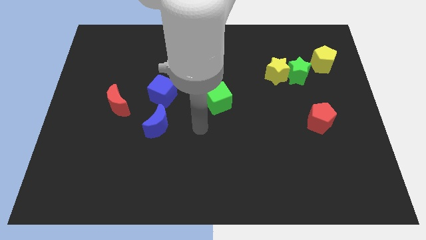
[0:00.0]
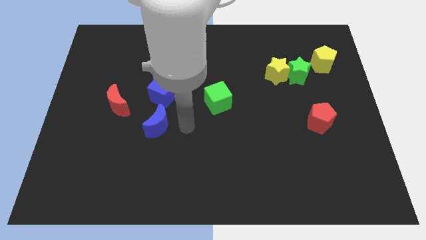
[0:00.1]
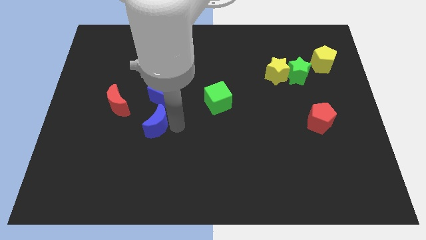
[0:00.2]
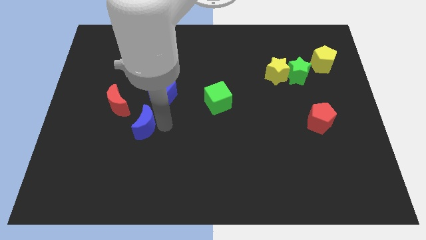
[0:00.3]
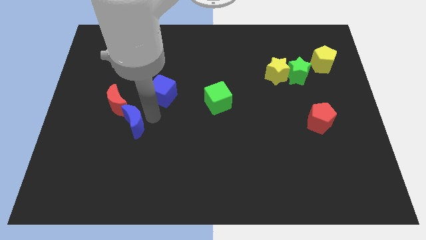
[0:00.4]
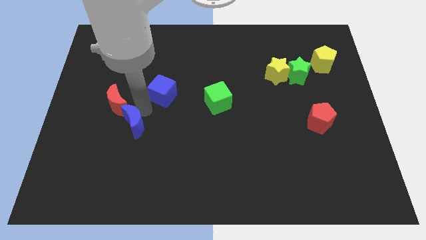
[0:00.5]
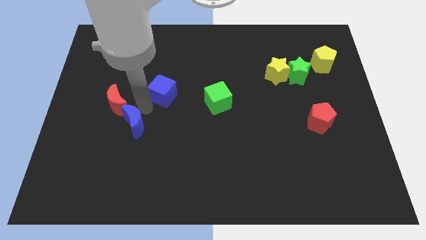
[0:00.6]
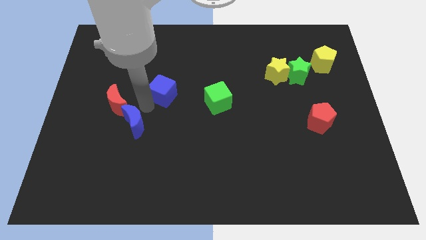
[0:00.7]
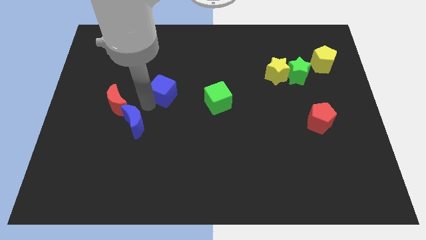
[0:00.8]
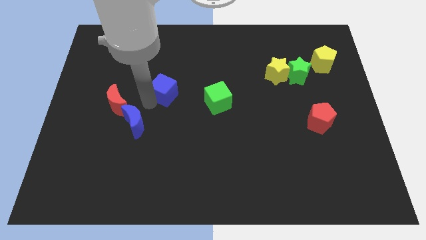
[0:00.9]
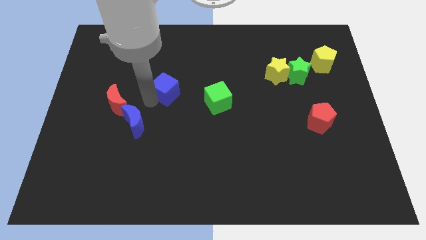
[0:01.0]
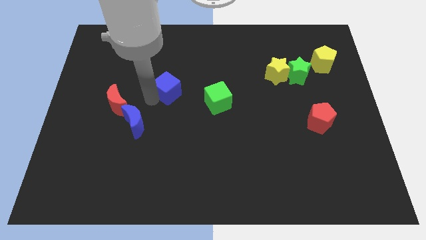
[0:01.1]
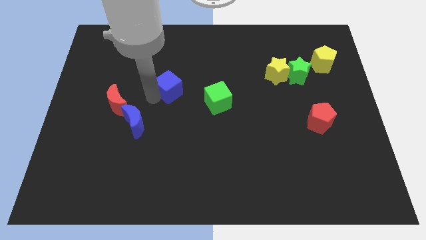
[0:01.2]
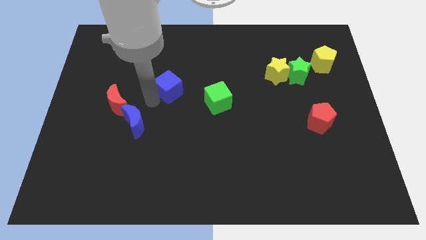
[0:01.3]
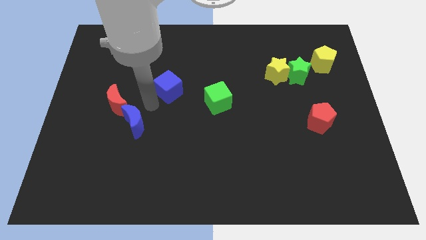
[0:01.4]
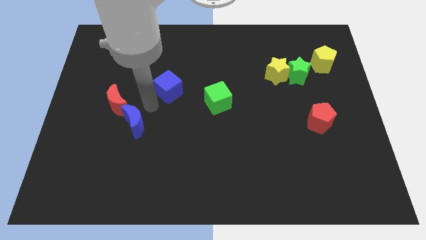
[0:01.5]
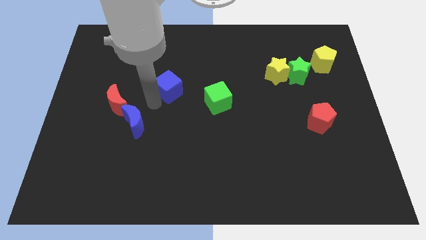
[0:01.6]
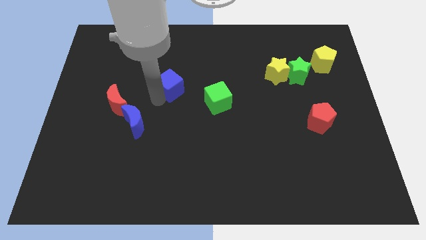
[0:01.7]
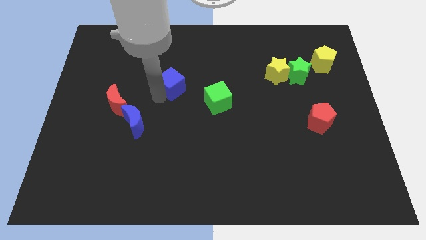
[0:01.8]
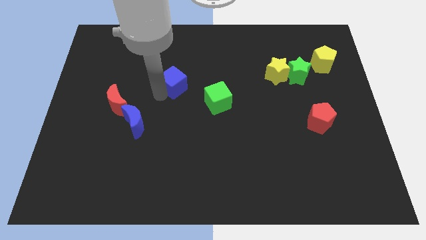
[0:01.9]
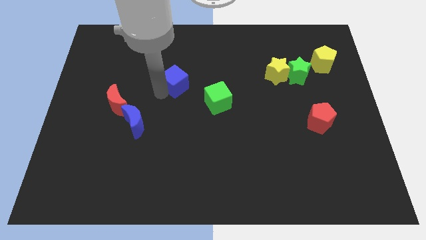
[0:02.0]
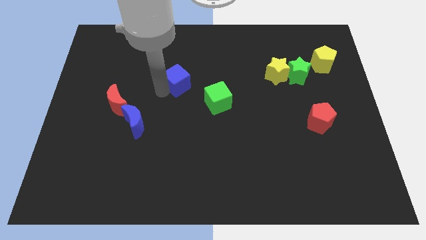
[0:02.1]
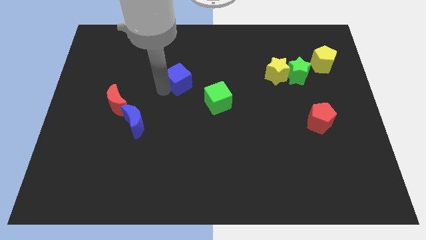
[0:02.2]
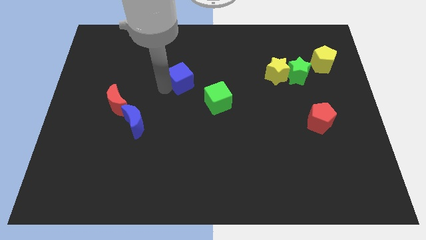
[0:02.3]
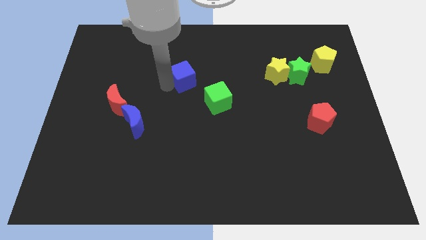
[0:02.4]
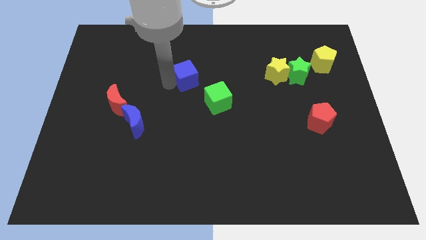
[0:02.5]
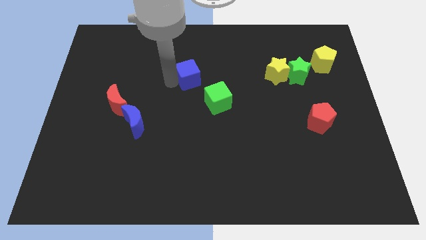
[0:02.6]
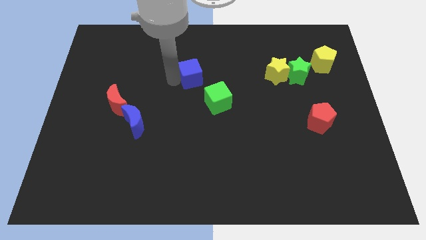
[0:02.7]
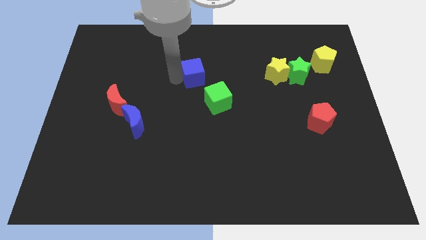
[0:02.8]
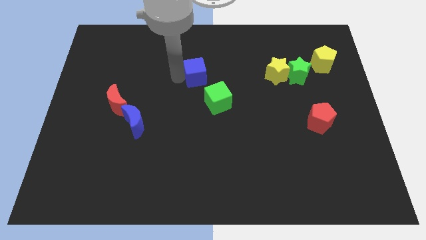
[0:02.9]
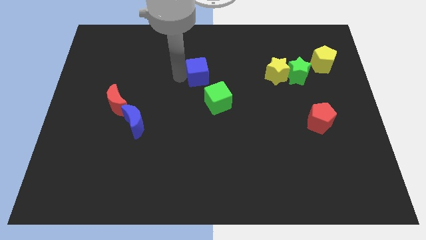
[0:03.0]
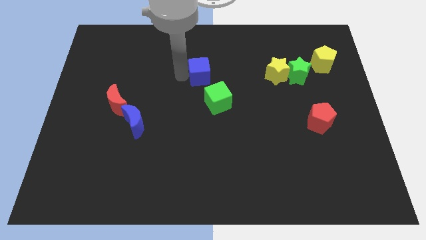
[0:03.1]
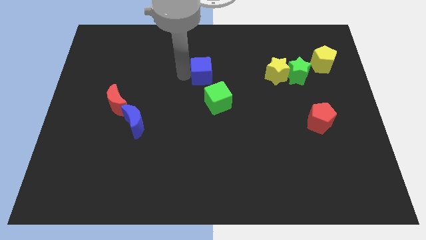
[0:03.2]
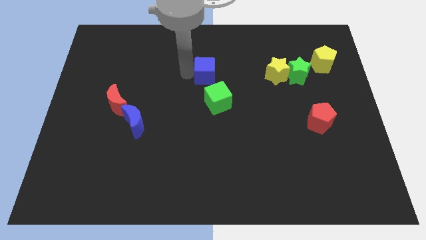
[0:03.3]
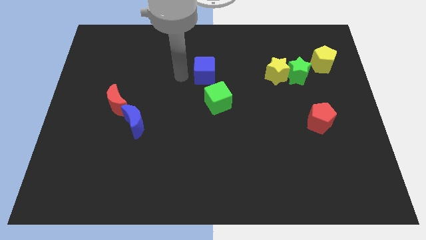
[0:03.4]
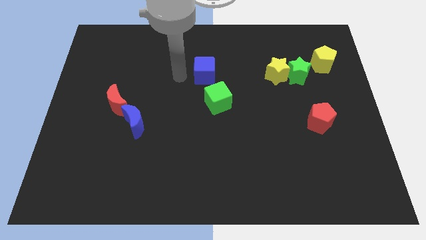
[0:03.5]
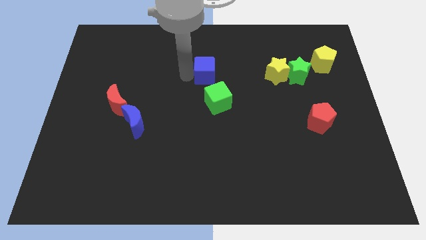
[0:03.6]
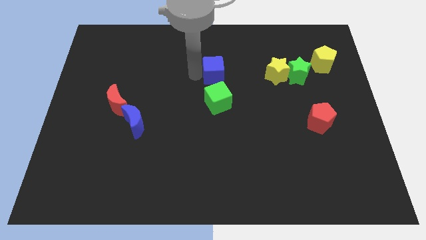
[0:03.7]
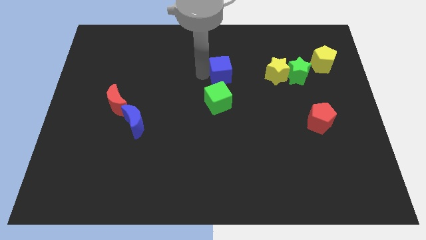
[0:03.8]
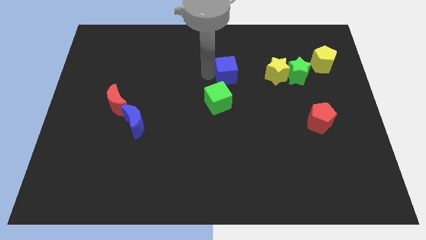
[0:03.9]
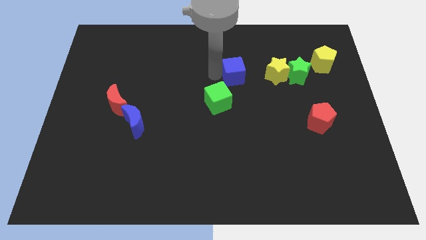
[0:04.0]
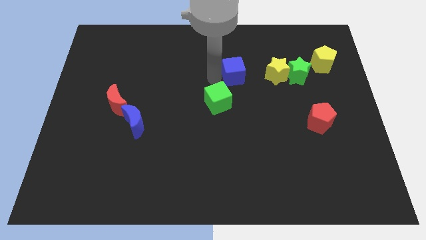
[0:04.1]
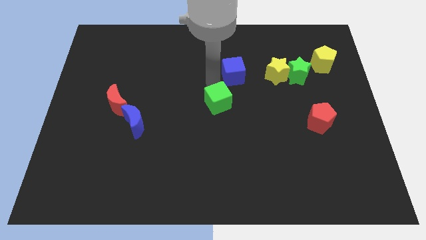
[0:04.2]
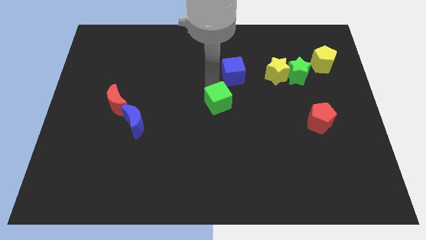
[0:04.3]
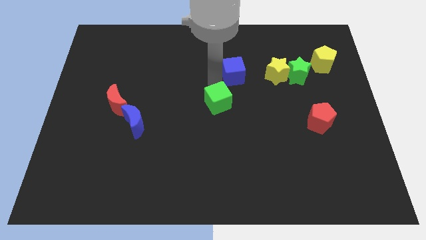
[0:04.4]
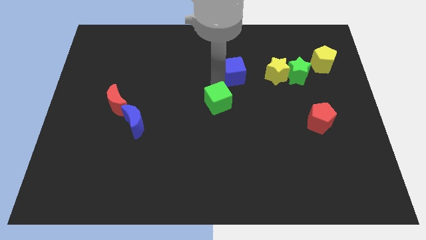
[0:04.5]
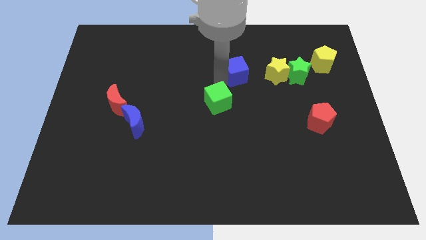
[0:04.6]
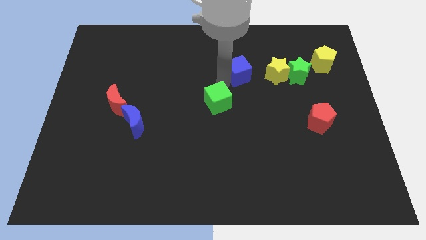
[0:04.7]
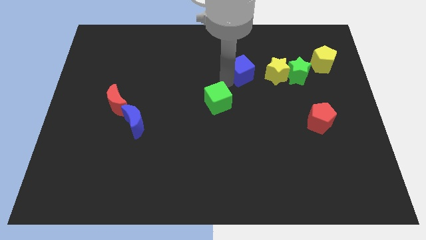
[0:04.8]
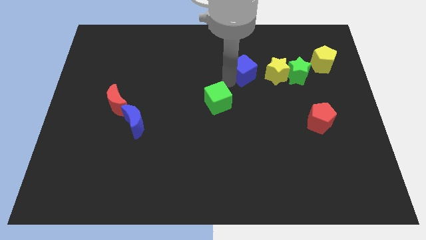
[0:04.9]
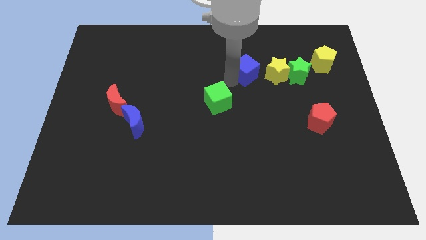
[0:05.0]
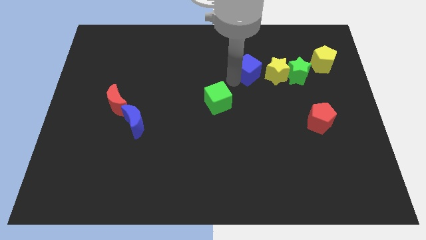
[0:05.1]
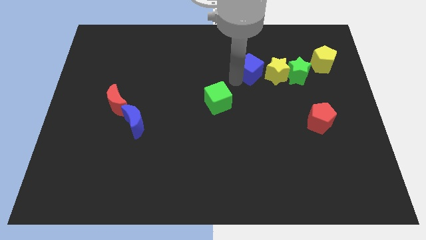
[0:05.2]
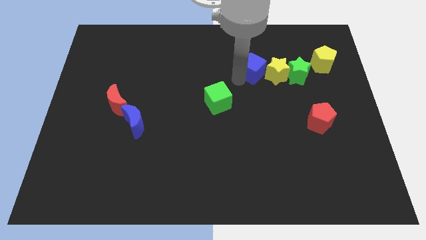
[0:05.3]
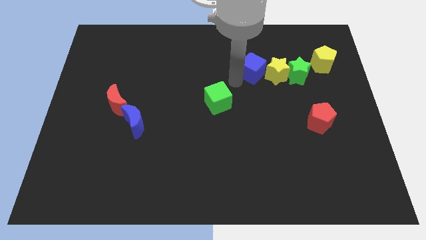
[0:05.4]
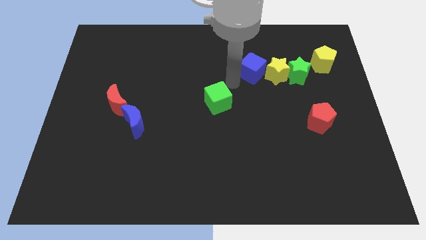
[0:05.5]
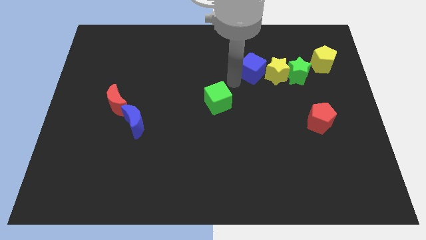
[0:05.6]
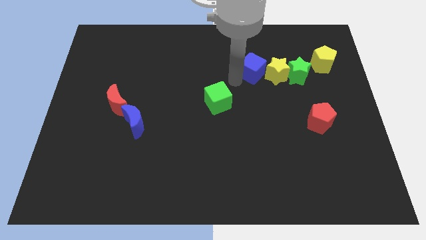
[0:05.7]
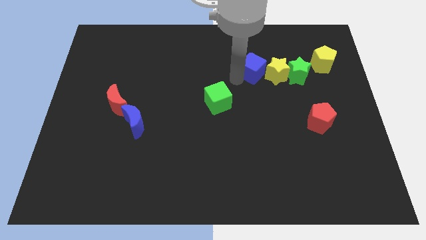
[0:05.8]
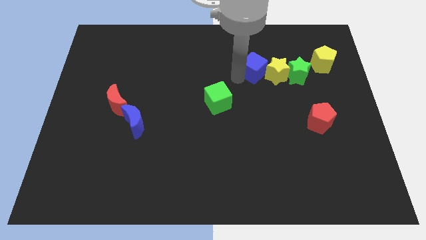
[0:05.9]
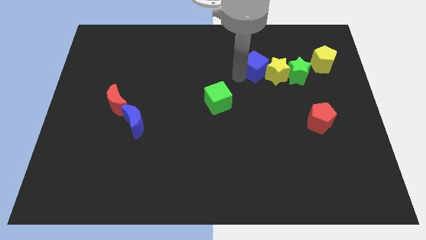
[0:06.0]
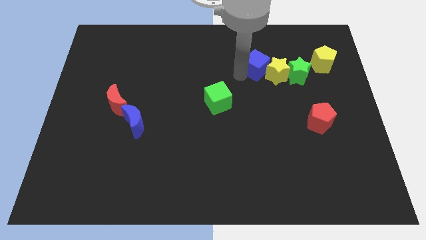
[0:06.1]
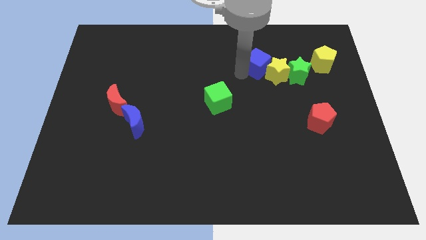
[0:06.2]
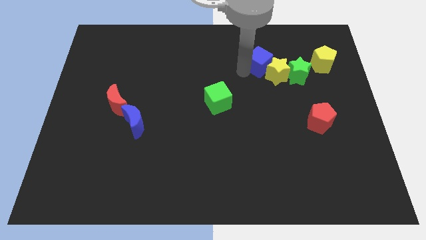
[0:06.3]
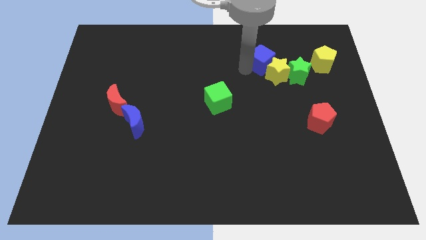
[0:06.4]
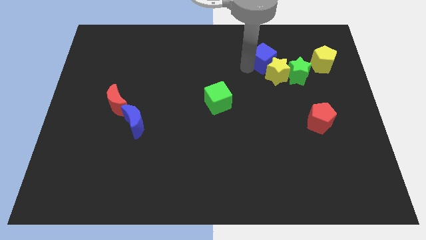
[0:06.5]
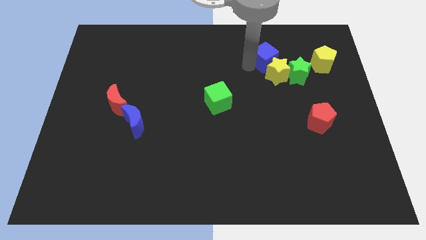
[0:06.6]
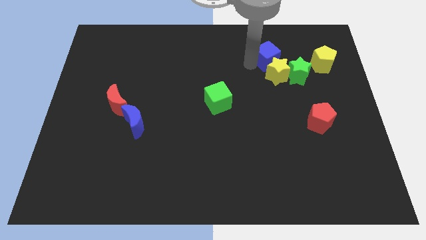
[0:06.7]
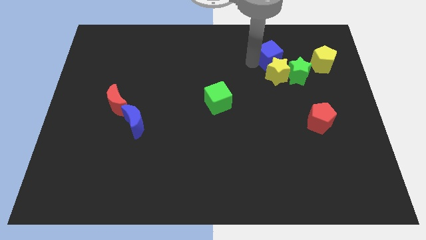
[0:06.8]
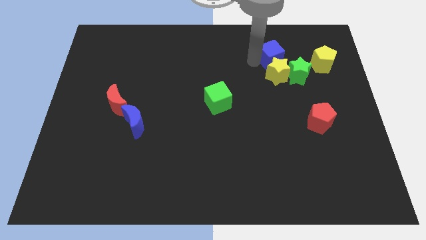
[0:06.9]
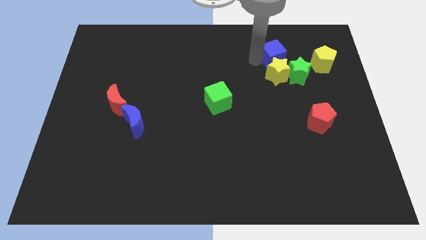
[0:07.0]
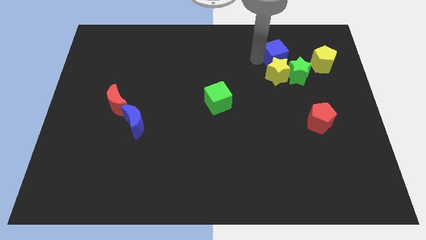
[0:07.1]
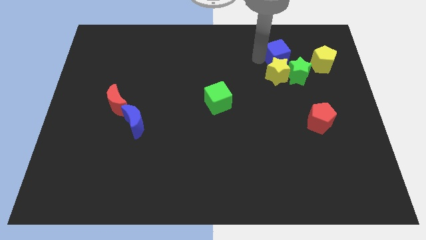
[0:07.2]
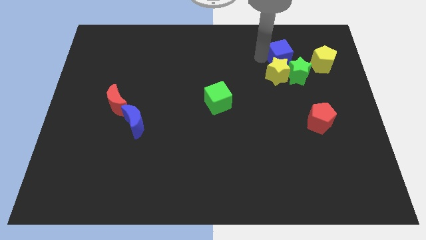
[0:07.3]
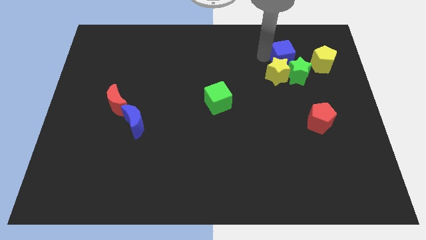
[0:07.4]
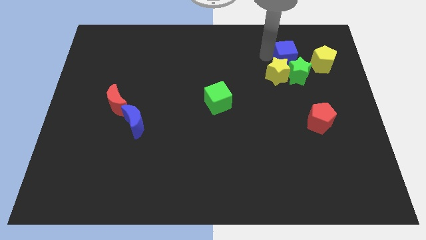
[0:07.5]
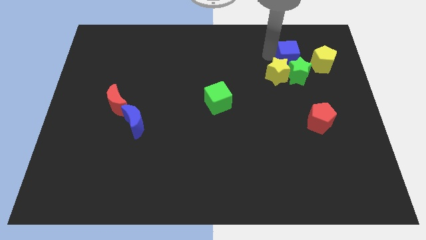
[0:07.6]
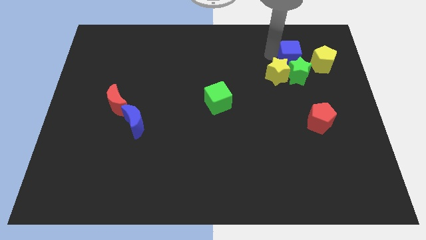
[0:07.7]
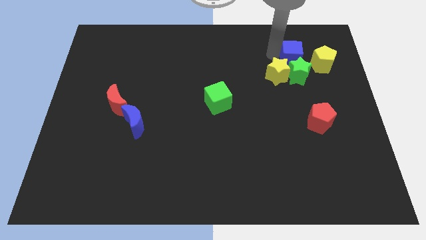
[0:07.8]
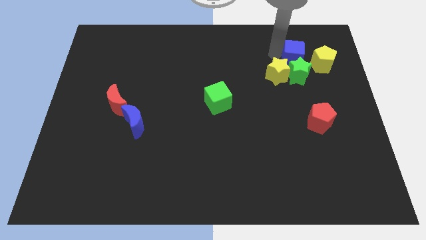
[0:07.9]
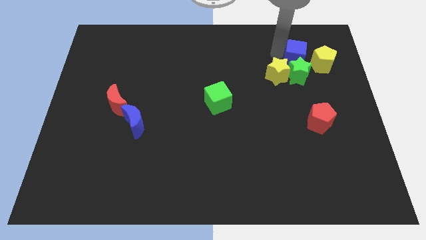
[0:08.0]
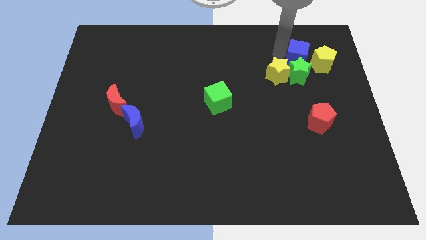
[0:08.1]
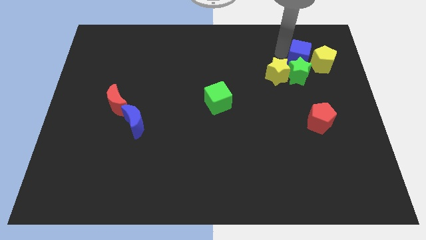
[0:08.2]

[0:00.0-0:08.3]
move the blue cube to the yellow pentagon
